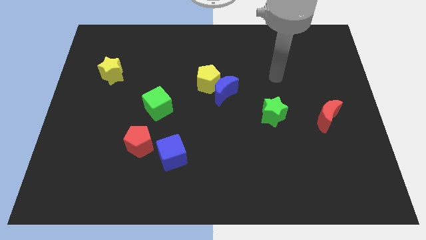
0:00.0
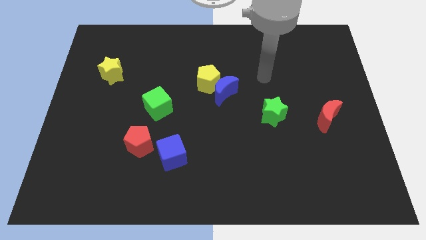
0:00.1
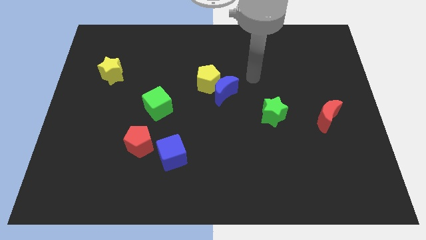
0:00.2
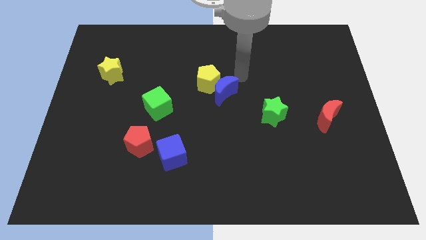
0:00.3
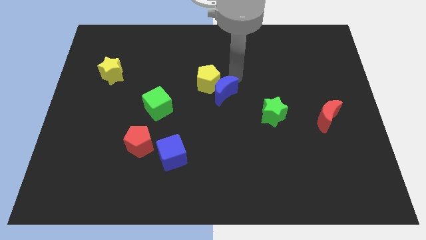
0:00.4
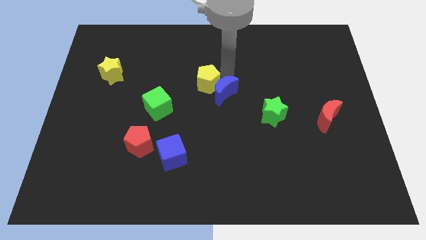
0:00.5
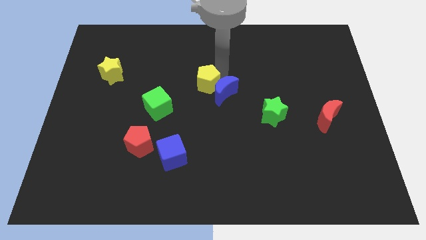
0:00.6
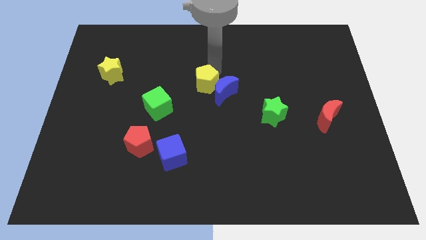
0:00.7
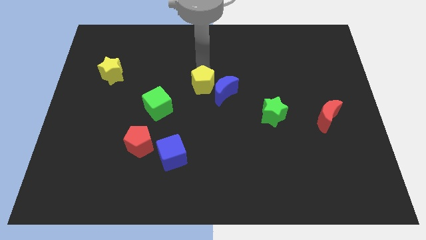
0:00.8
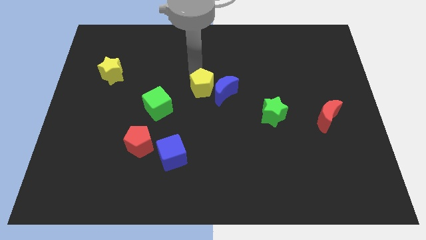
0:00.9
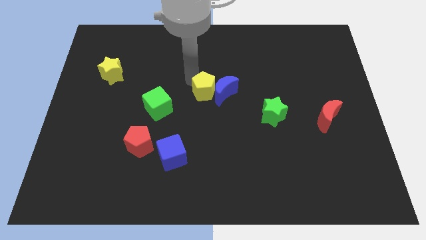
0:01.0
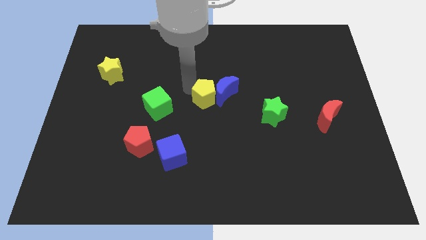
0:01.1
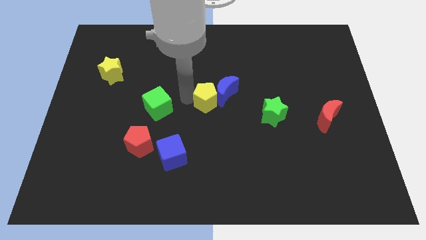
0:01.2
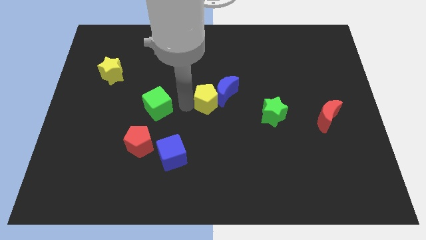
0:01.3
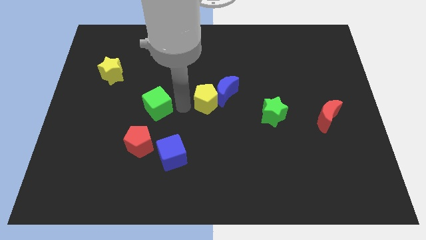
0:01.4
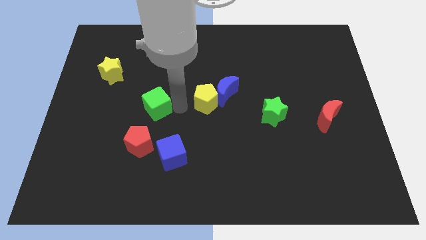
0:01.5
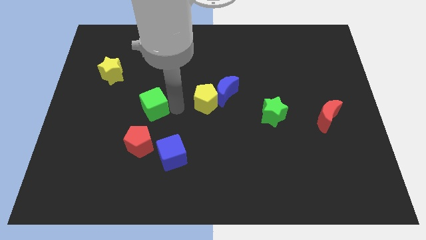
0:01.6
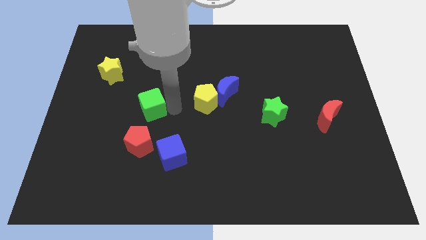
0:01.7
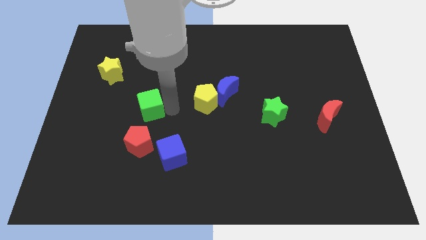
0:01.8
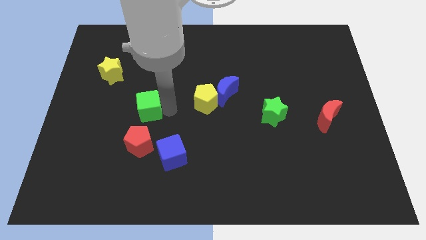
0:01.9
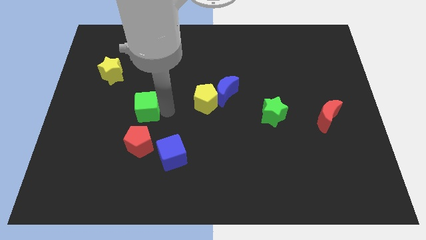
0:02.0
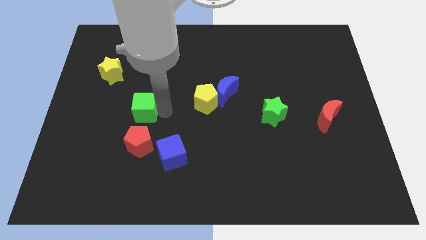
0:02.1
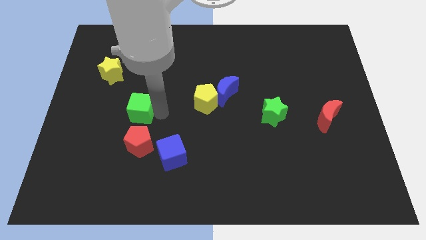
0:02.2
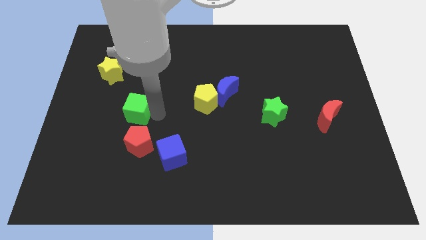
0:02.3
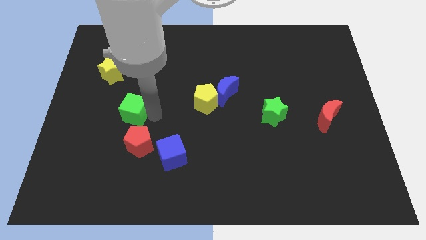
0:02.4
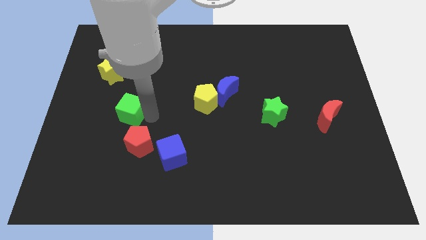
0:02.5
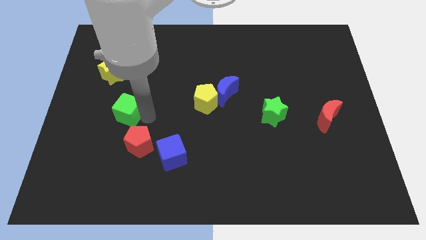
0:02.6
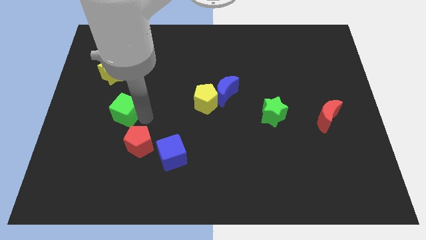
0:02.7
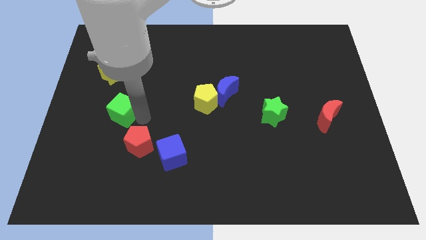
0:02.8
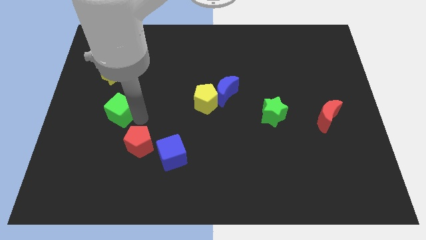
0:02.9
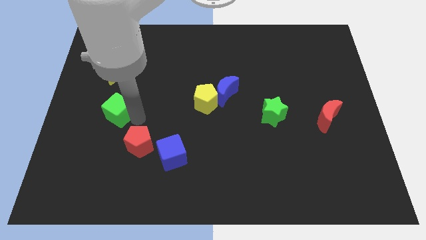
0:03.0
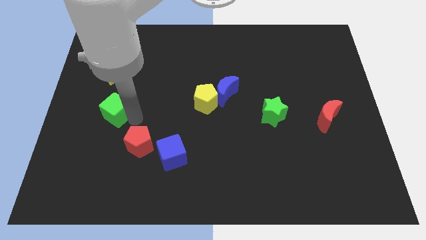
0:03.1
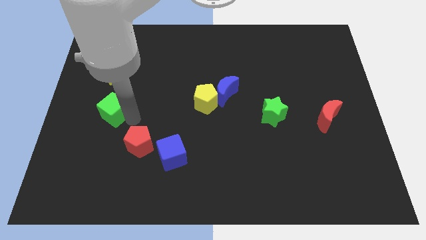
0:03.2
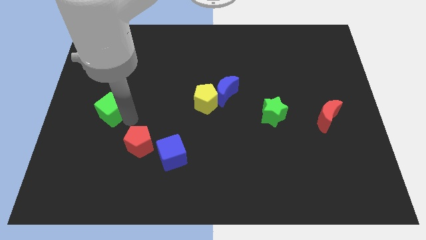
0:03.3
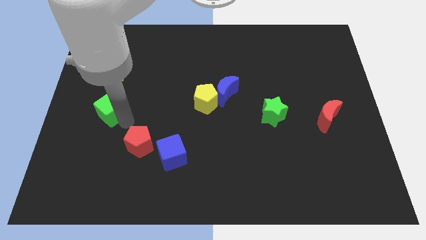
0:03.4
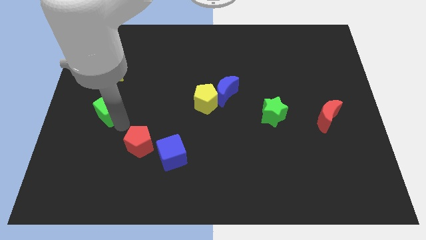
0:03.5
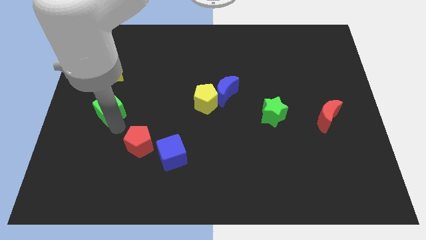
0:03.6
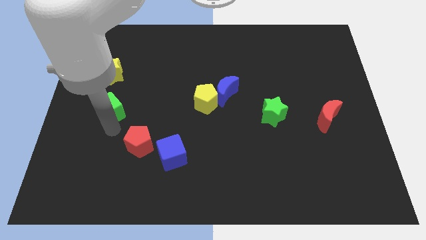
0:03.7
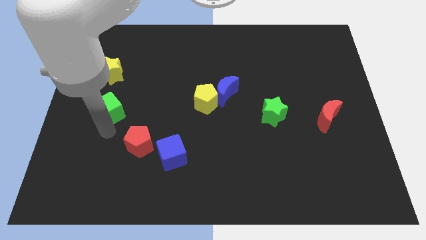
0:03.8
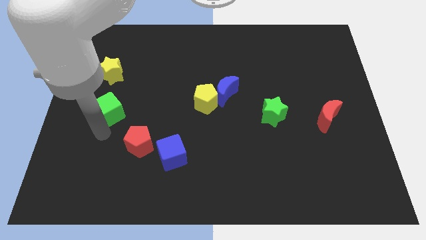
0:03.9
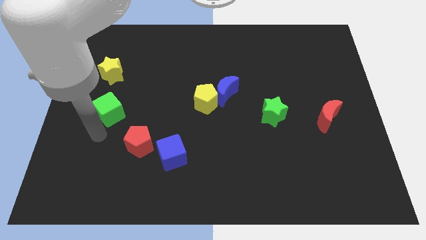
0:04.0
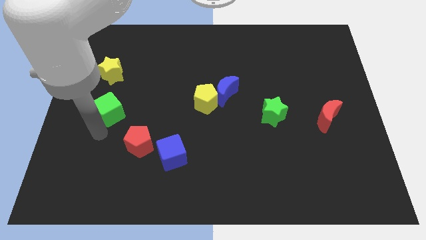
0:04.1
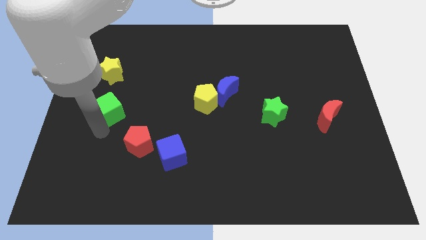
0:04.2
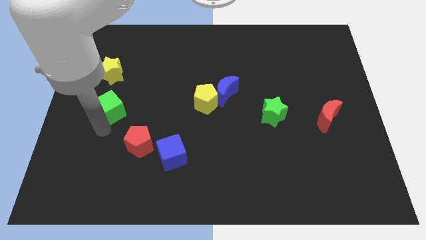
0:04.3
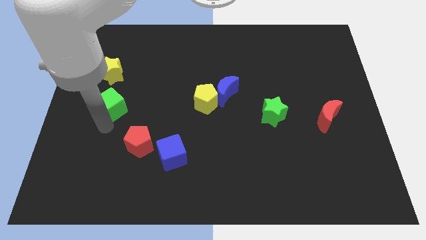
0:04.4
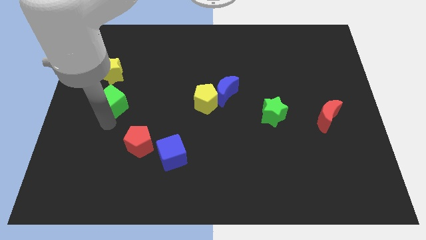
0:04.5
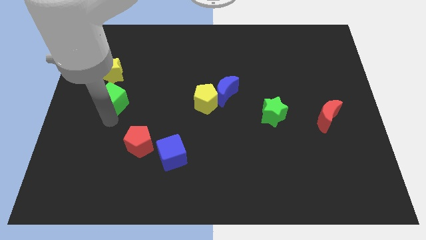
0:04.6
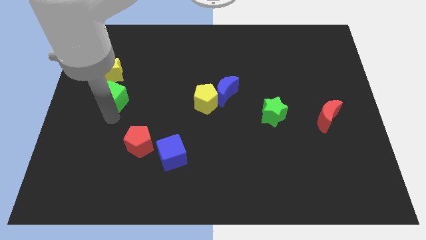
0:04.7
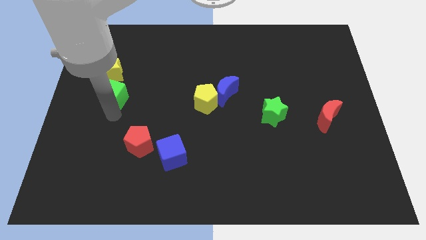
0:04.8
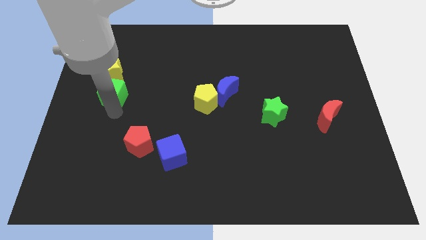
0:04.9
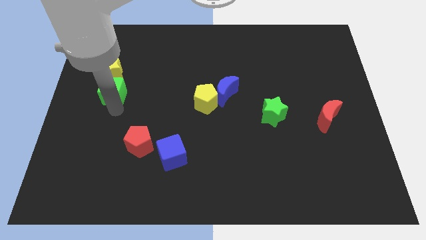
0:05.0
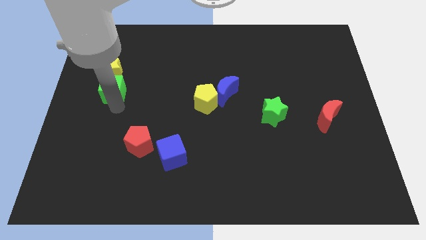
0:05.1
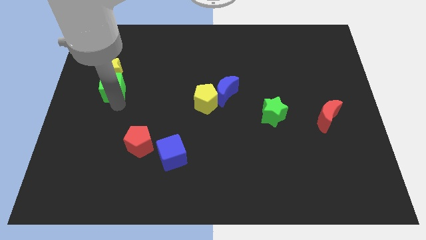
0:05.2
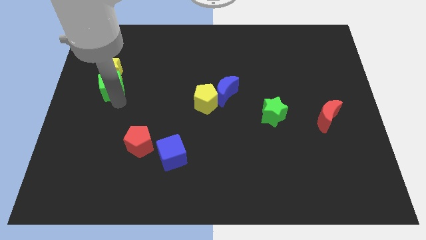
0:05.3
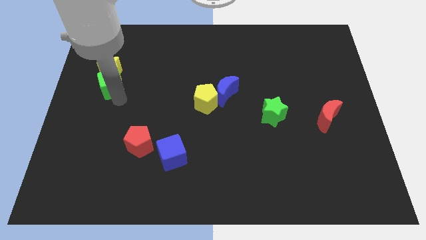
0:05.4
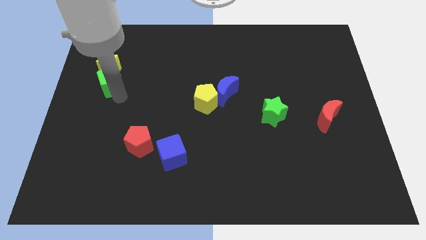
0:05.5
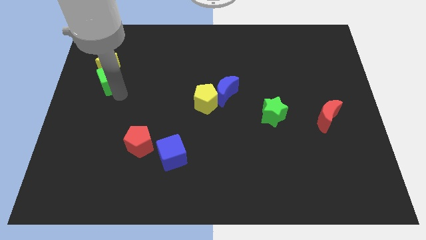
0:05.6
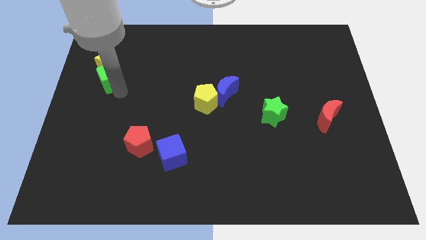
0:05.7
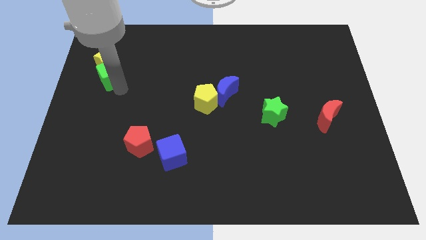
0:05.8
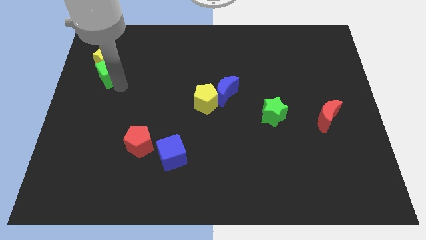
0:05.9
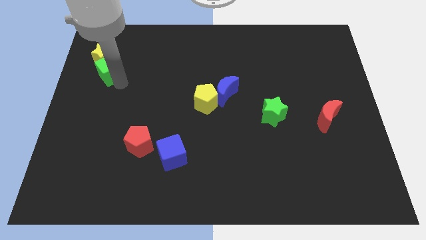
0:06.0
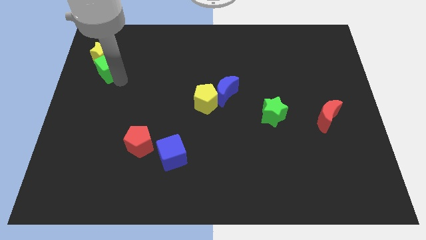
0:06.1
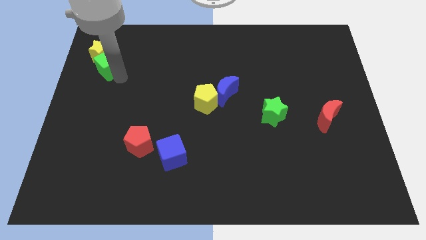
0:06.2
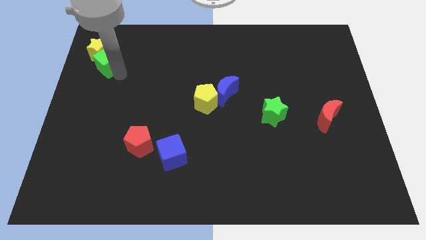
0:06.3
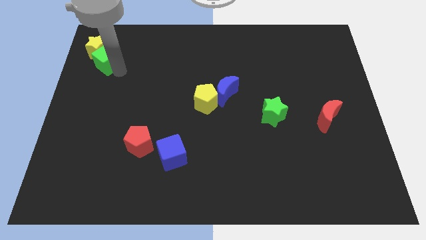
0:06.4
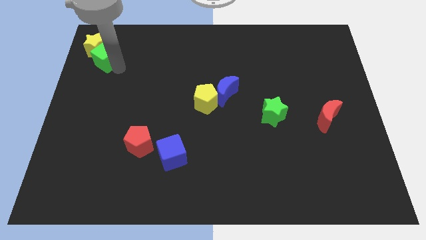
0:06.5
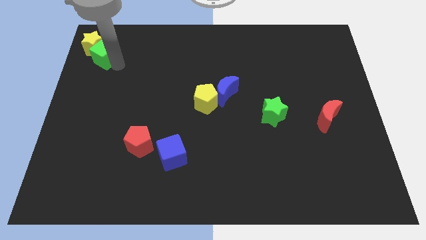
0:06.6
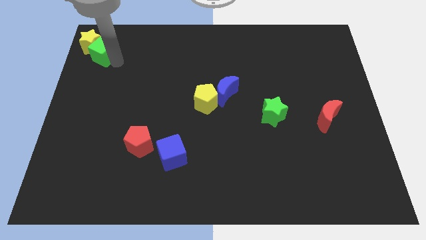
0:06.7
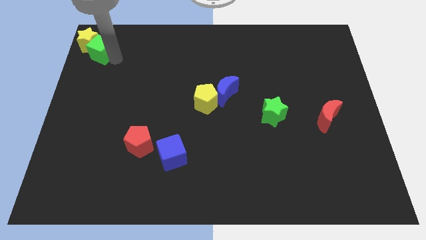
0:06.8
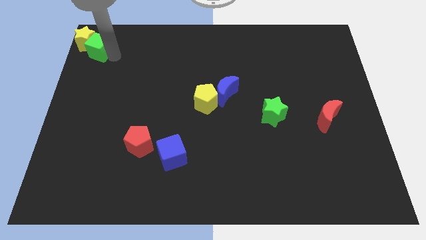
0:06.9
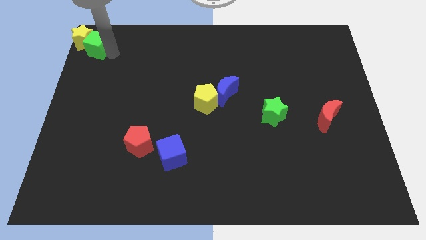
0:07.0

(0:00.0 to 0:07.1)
move the green cube to the upper left corner
